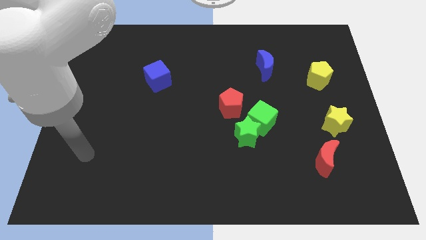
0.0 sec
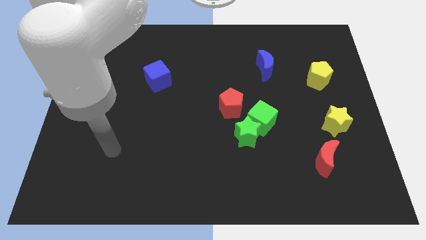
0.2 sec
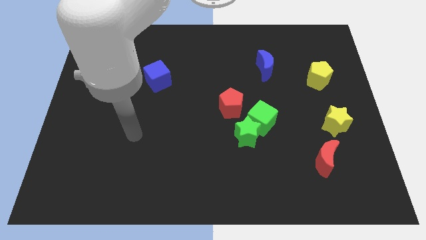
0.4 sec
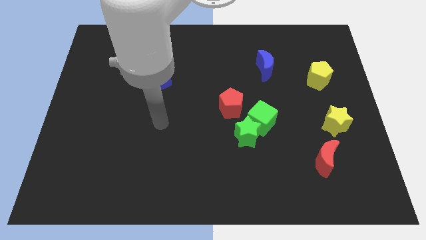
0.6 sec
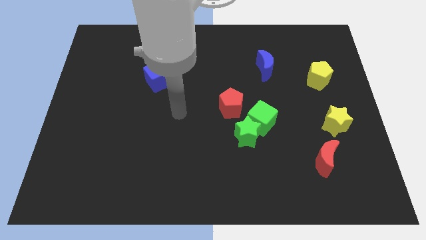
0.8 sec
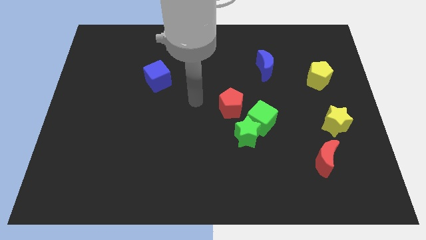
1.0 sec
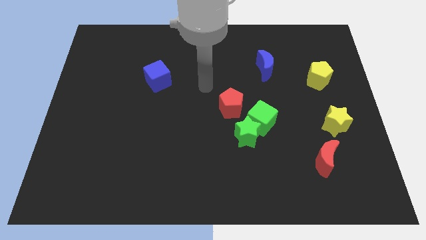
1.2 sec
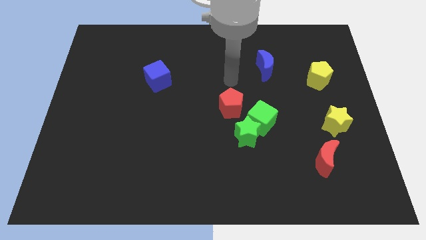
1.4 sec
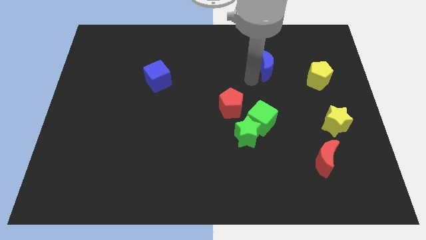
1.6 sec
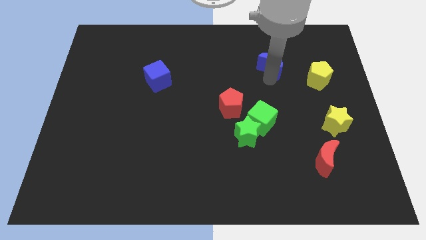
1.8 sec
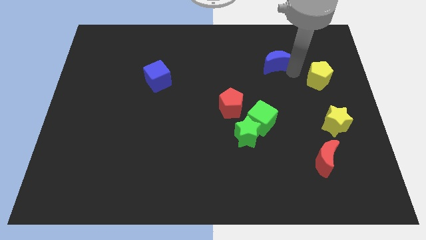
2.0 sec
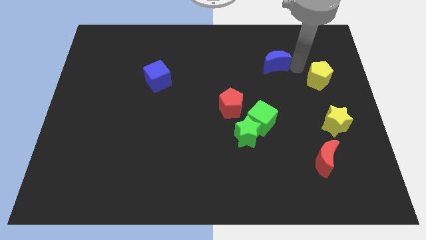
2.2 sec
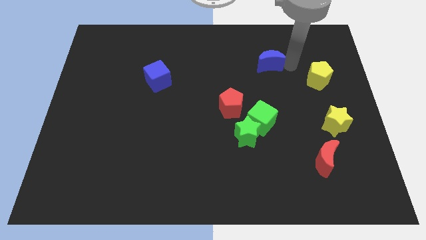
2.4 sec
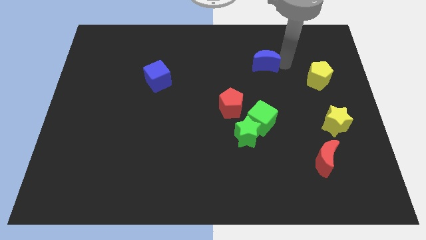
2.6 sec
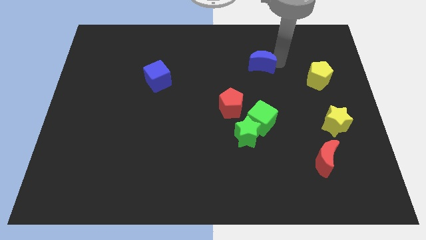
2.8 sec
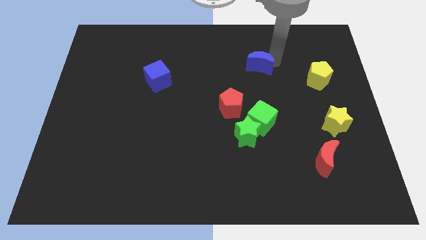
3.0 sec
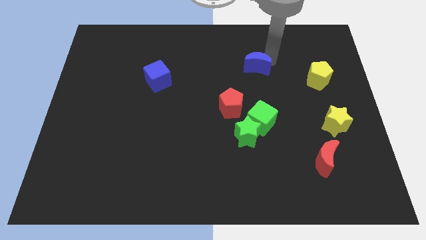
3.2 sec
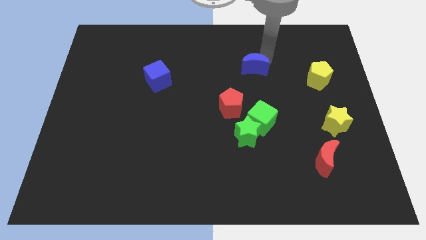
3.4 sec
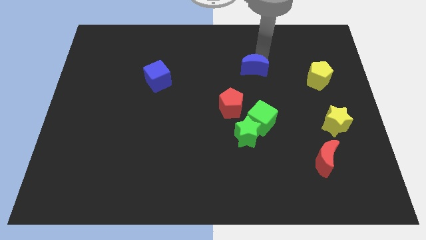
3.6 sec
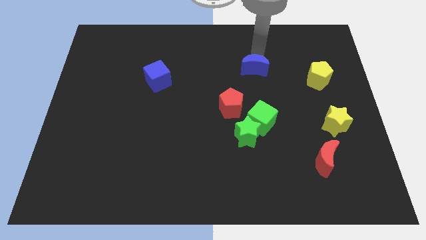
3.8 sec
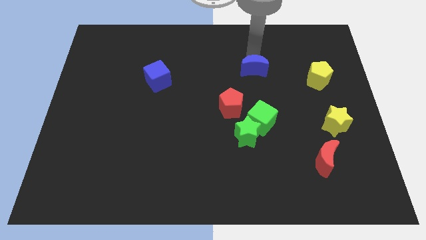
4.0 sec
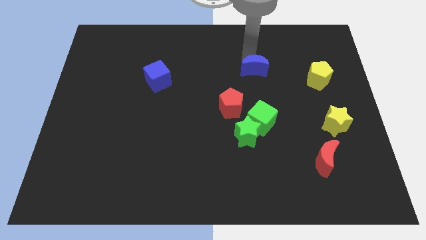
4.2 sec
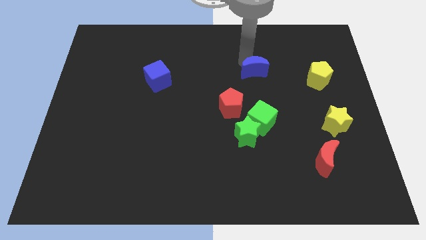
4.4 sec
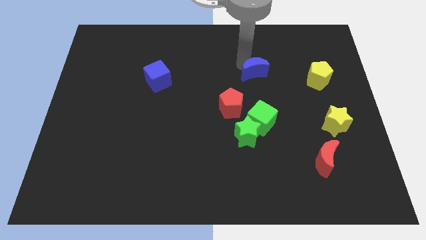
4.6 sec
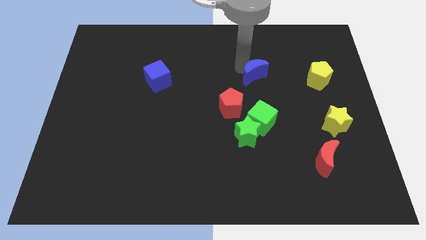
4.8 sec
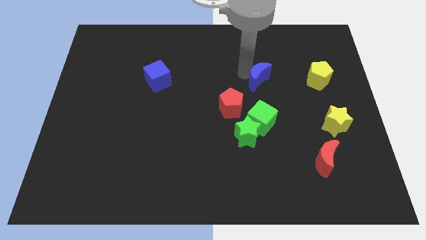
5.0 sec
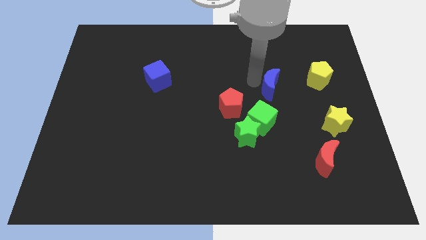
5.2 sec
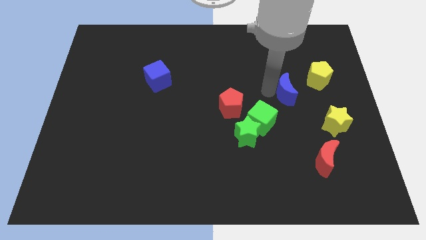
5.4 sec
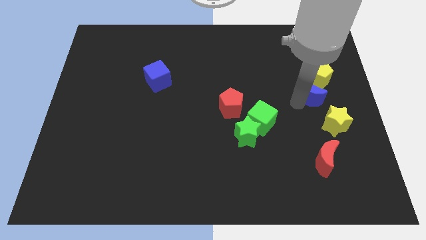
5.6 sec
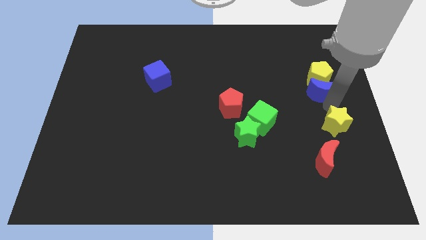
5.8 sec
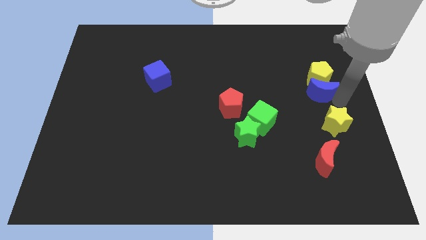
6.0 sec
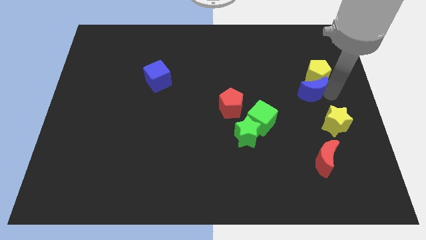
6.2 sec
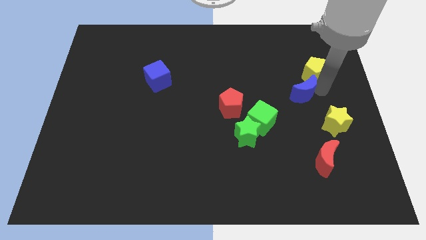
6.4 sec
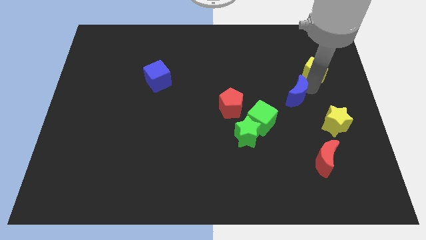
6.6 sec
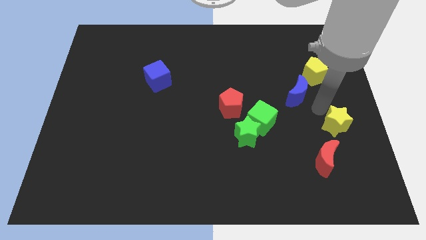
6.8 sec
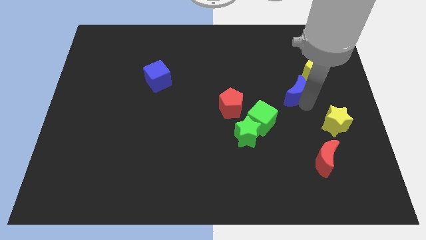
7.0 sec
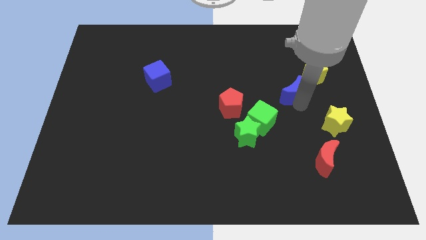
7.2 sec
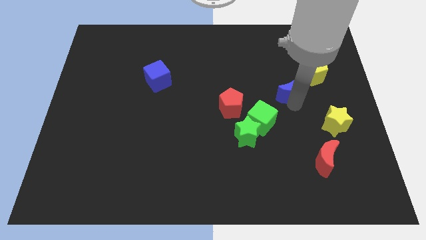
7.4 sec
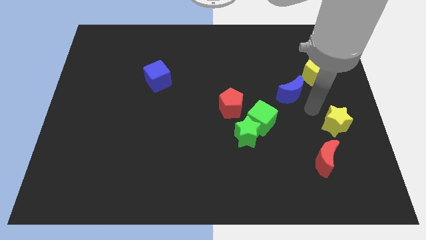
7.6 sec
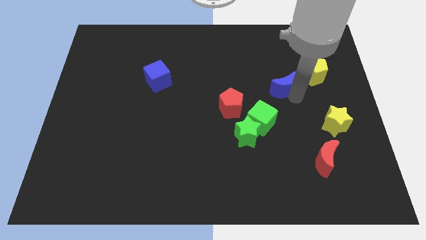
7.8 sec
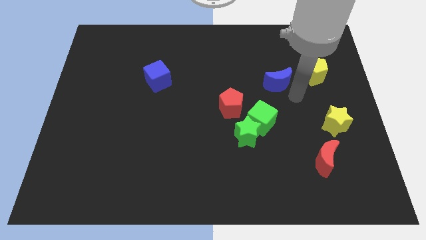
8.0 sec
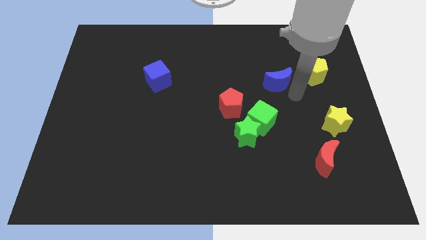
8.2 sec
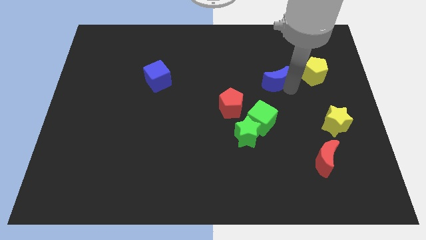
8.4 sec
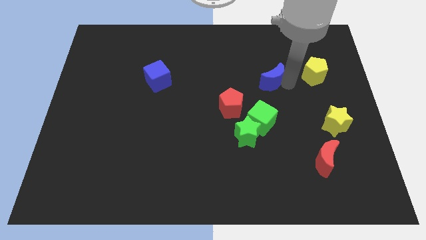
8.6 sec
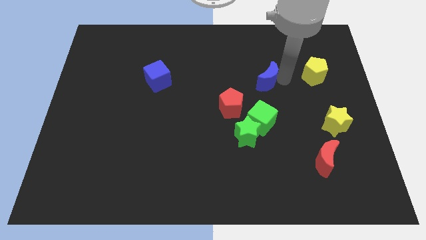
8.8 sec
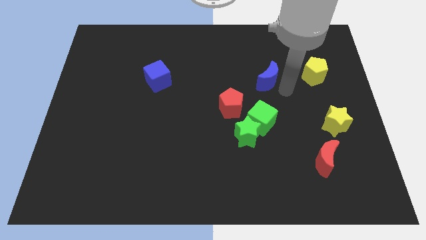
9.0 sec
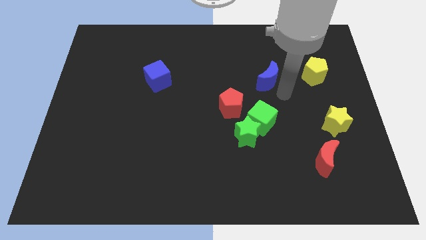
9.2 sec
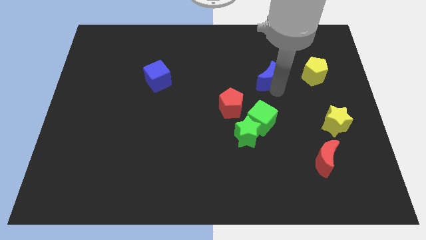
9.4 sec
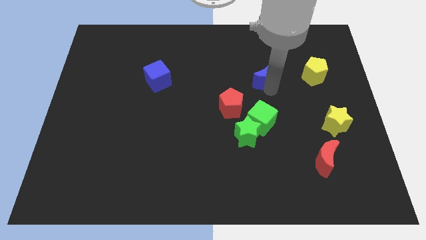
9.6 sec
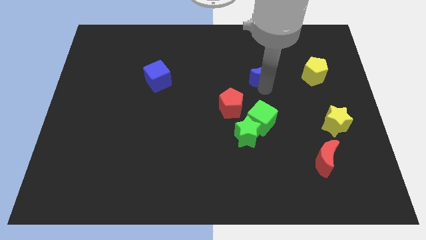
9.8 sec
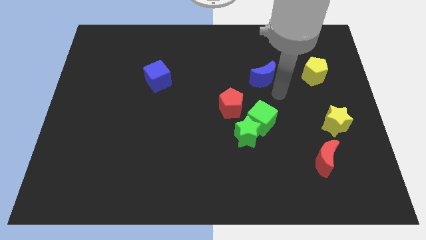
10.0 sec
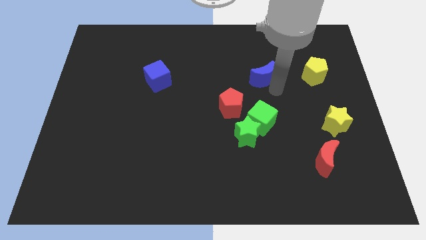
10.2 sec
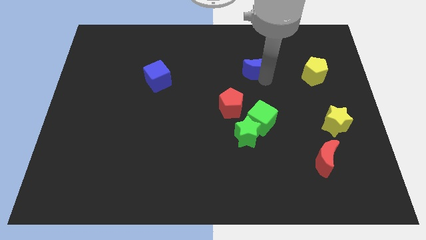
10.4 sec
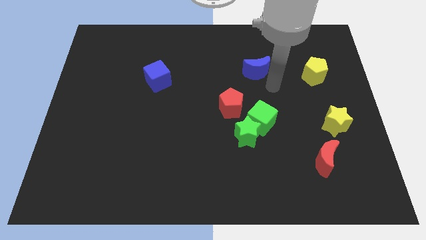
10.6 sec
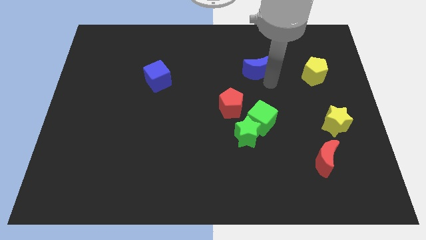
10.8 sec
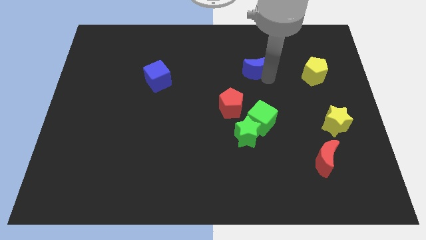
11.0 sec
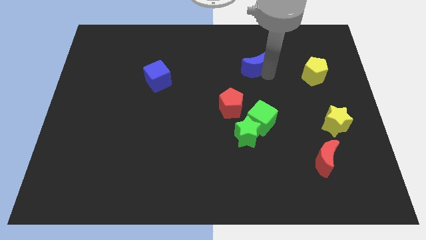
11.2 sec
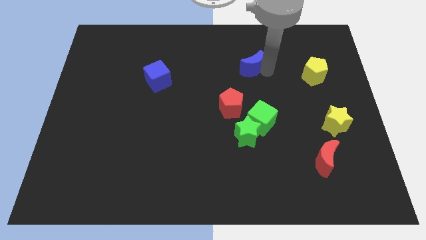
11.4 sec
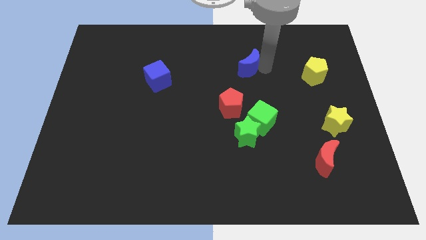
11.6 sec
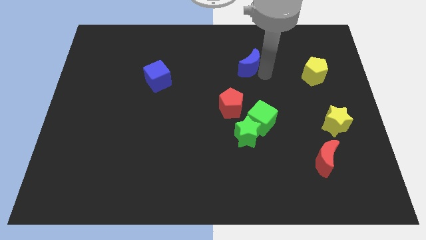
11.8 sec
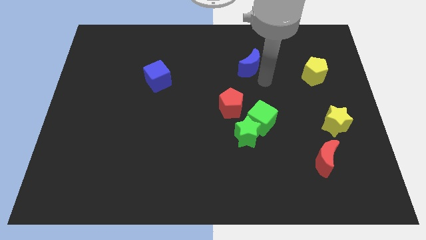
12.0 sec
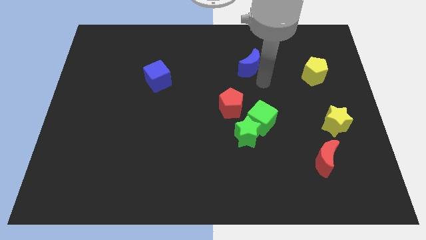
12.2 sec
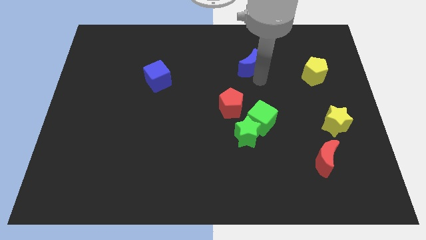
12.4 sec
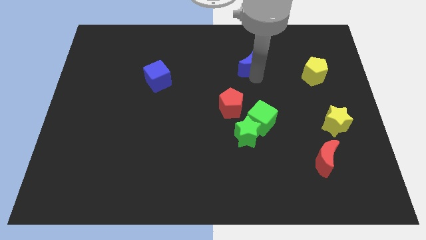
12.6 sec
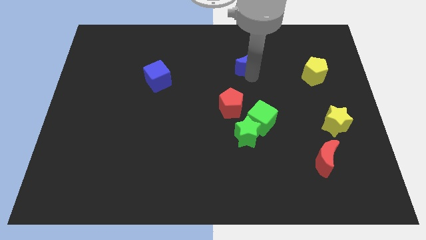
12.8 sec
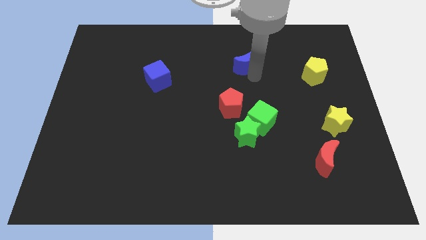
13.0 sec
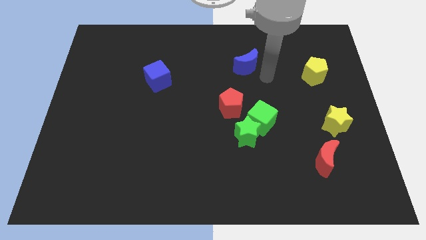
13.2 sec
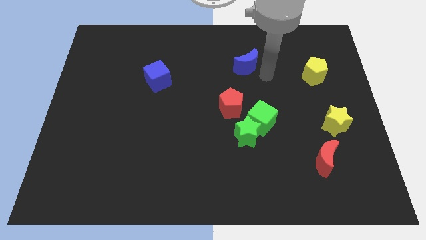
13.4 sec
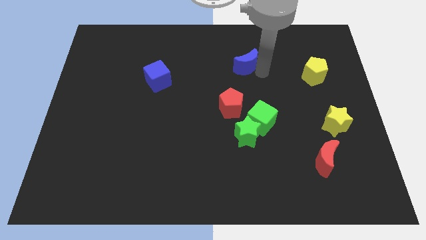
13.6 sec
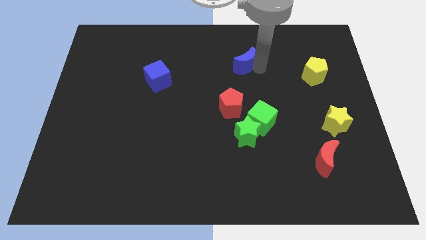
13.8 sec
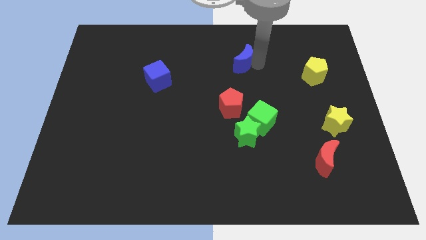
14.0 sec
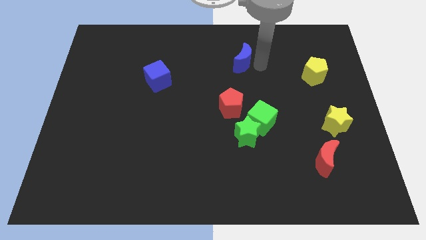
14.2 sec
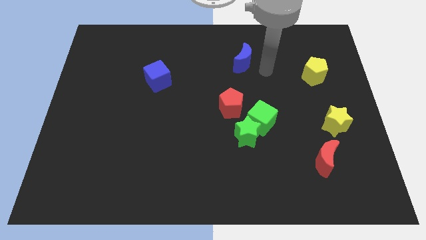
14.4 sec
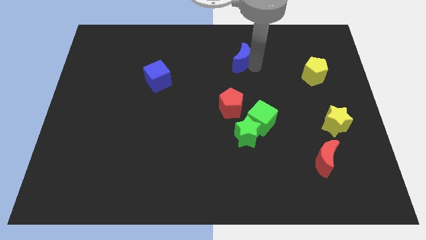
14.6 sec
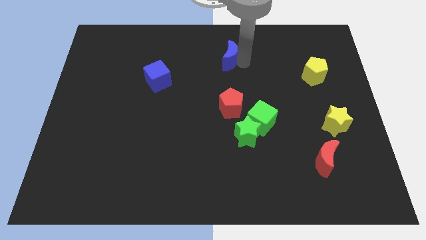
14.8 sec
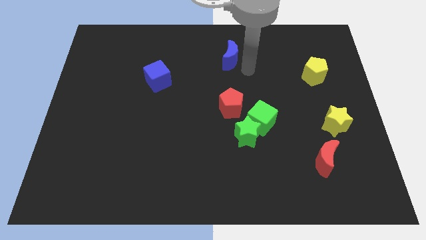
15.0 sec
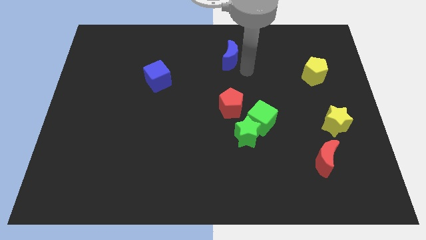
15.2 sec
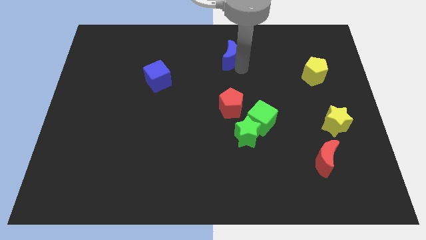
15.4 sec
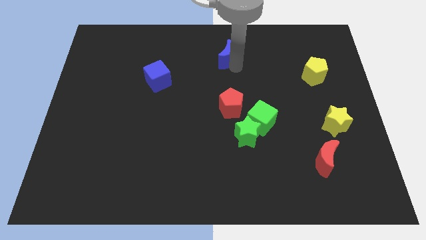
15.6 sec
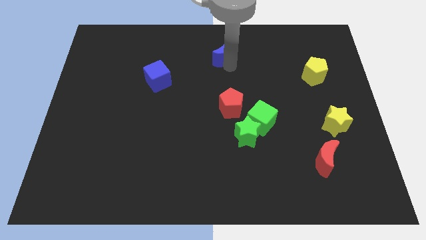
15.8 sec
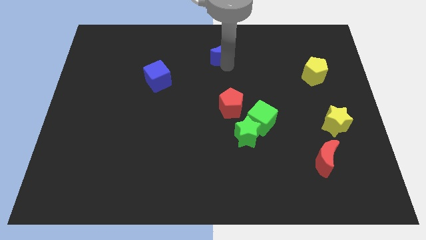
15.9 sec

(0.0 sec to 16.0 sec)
move the blue moon to the top side
